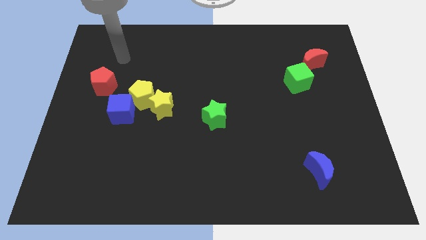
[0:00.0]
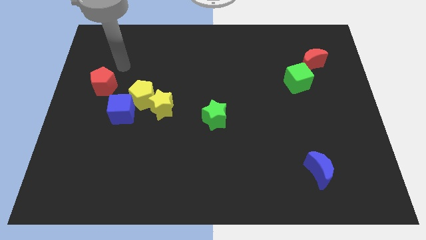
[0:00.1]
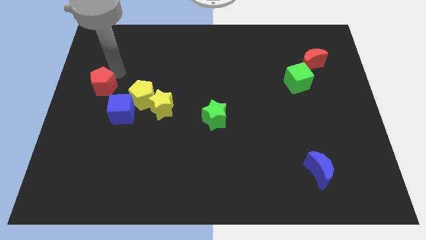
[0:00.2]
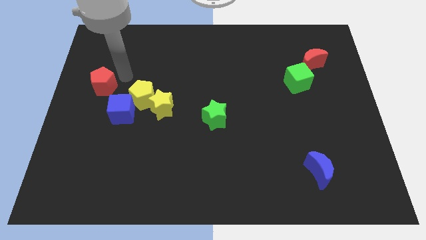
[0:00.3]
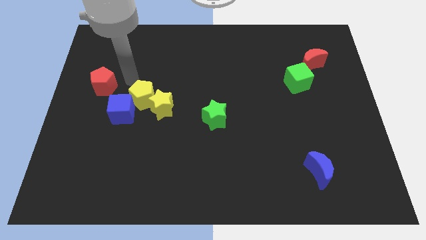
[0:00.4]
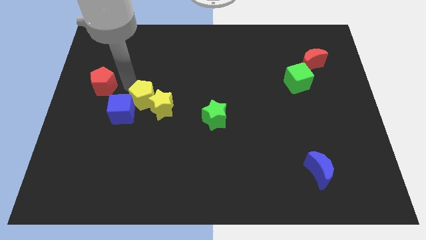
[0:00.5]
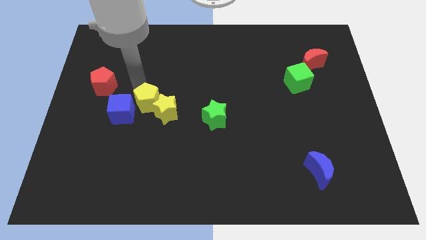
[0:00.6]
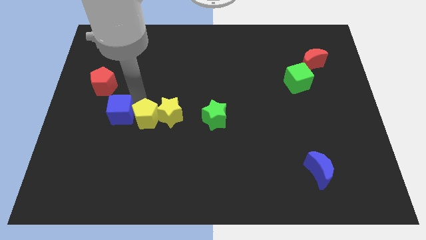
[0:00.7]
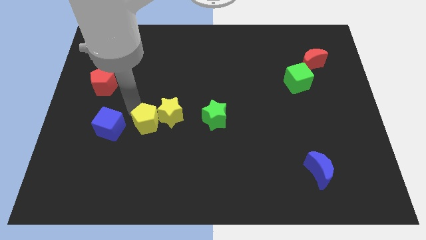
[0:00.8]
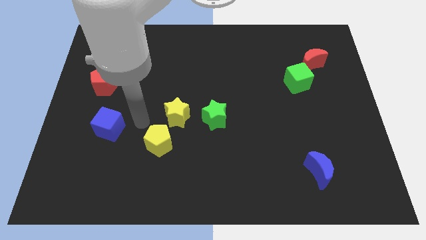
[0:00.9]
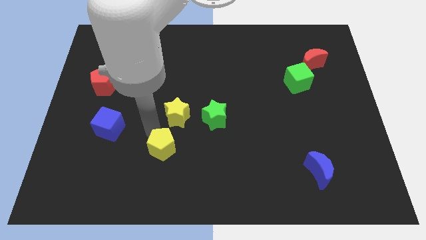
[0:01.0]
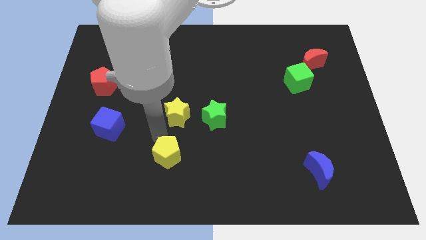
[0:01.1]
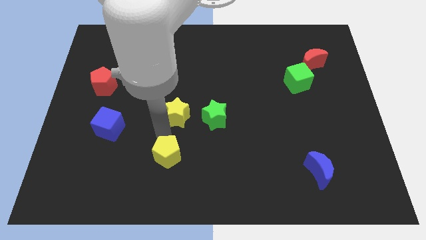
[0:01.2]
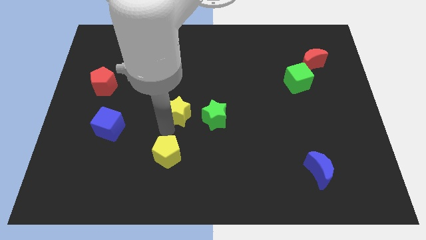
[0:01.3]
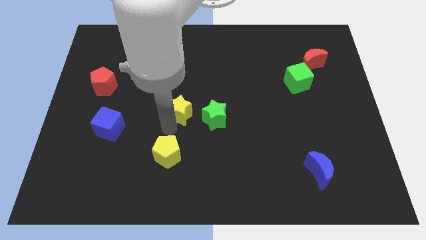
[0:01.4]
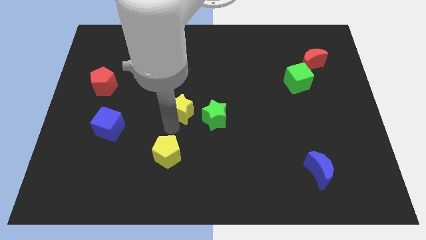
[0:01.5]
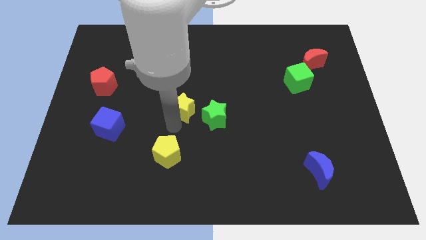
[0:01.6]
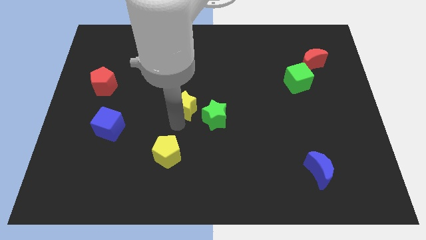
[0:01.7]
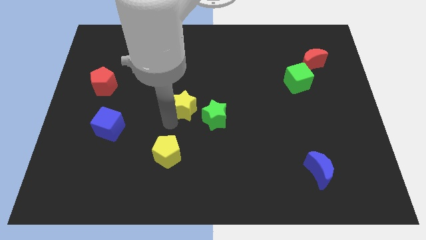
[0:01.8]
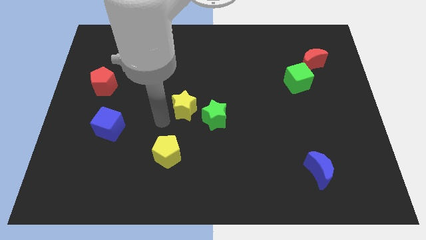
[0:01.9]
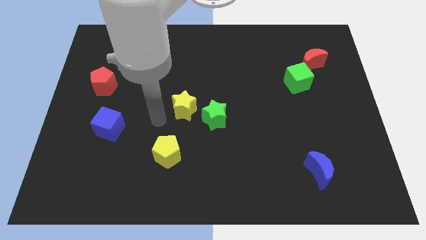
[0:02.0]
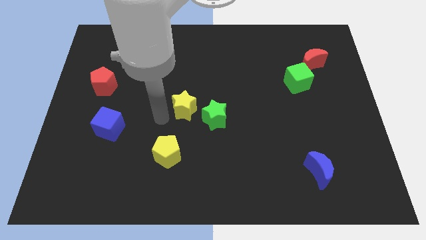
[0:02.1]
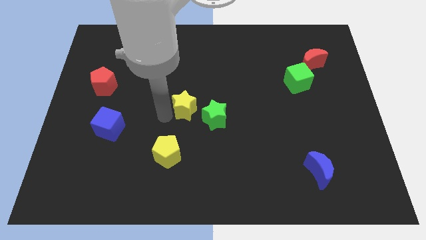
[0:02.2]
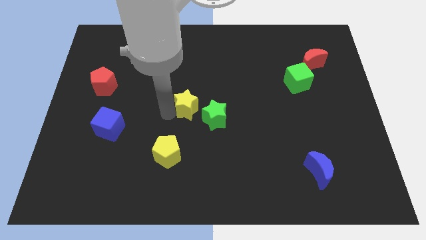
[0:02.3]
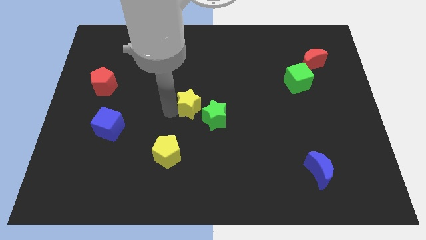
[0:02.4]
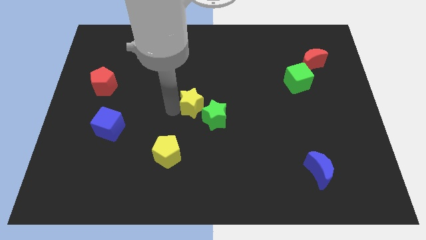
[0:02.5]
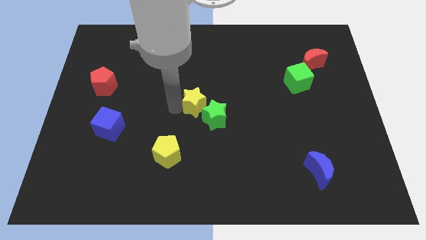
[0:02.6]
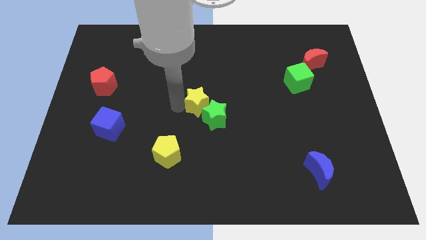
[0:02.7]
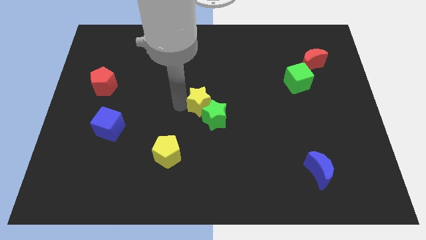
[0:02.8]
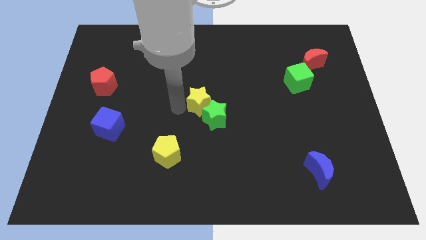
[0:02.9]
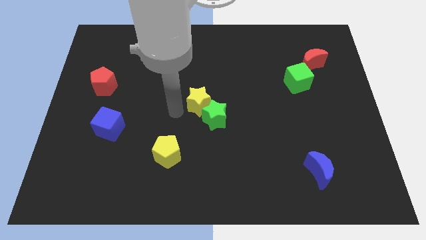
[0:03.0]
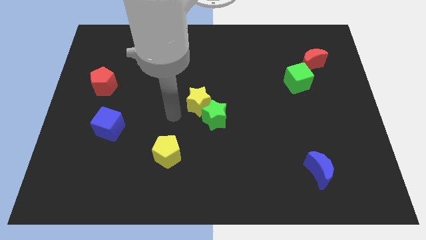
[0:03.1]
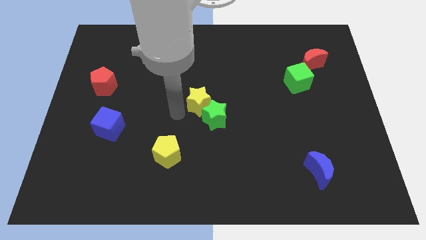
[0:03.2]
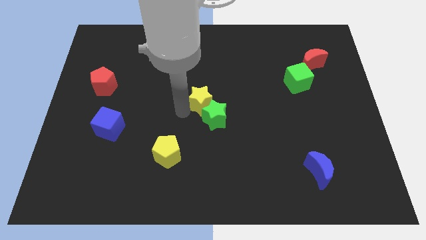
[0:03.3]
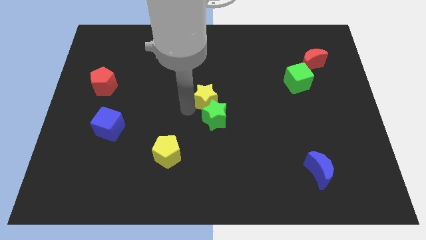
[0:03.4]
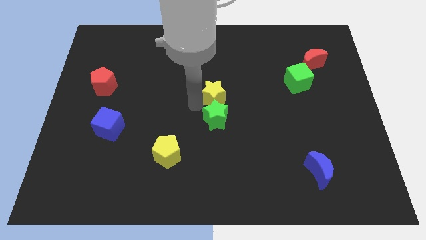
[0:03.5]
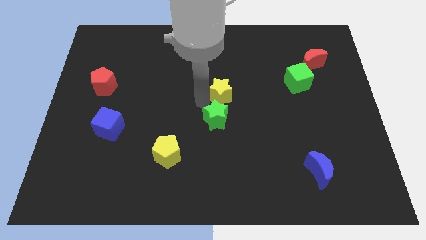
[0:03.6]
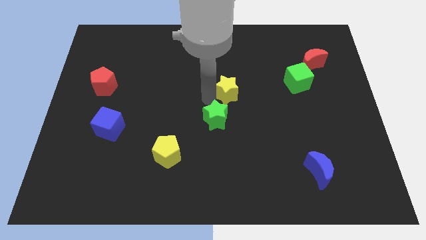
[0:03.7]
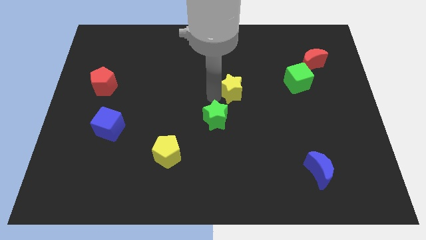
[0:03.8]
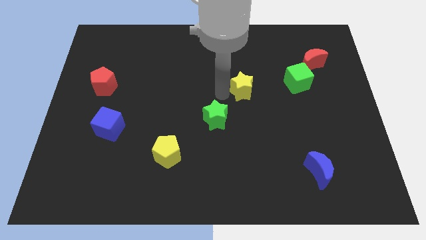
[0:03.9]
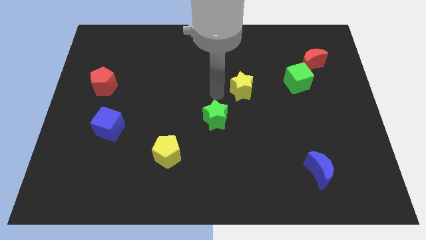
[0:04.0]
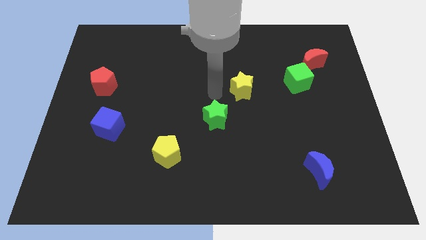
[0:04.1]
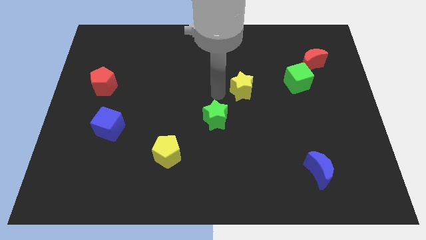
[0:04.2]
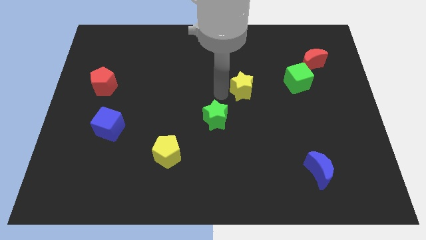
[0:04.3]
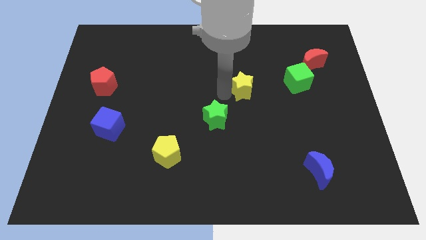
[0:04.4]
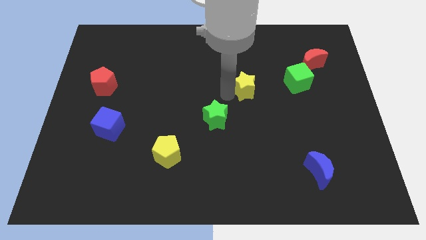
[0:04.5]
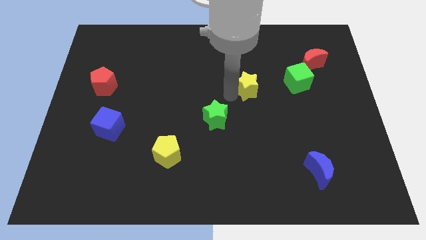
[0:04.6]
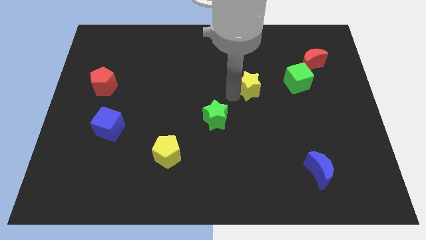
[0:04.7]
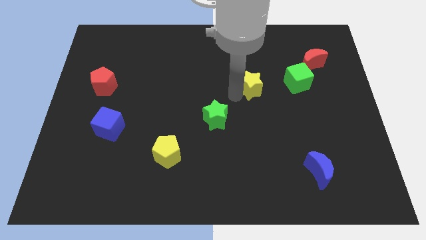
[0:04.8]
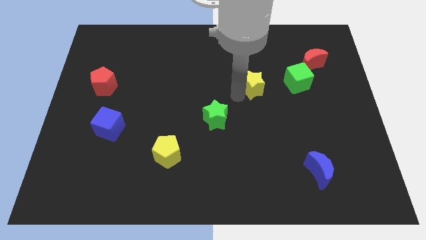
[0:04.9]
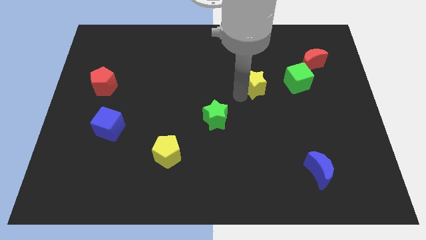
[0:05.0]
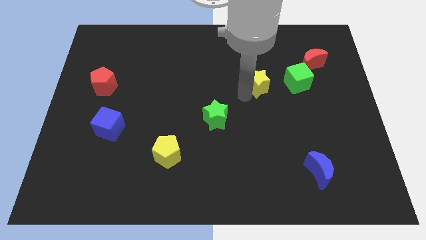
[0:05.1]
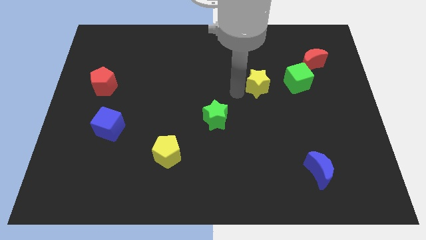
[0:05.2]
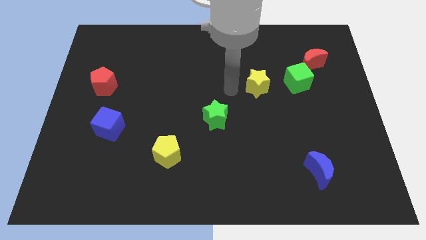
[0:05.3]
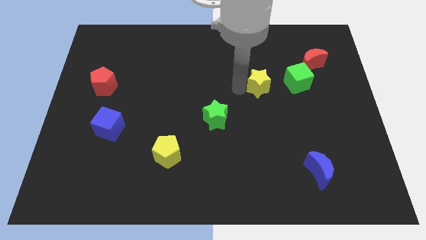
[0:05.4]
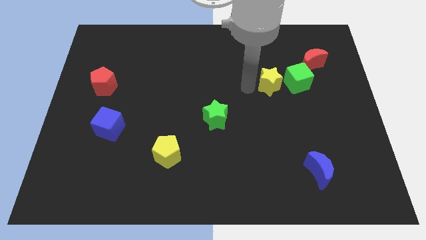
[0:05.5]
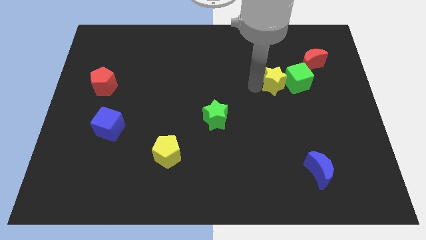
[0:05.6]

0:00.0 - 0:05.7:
push the yellow star towards the green cube

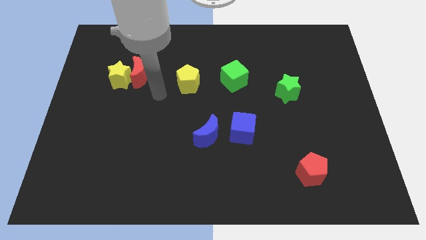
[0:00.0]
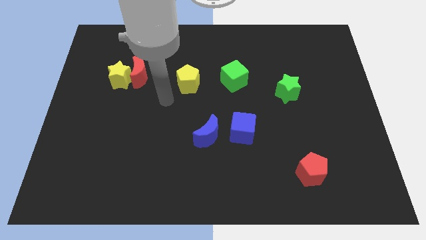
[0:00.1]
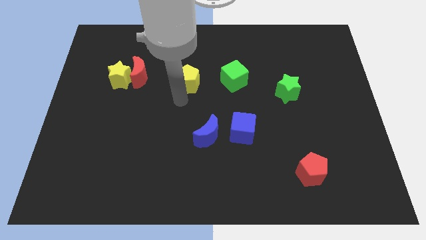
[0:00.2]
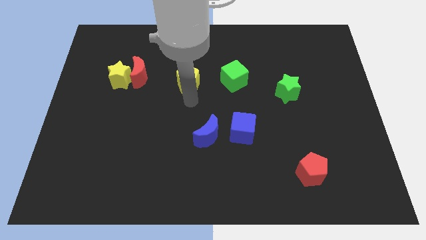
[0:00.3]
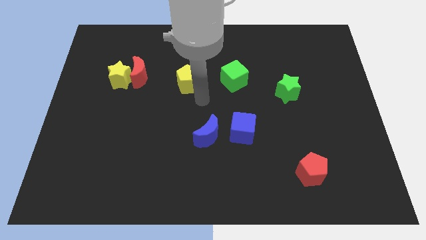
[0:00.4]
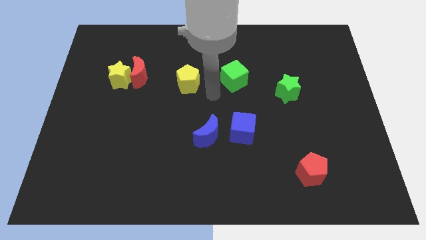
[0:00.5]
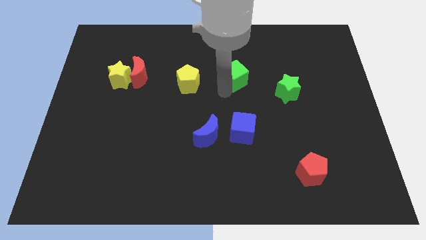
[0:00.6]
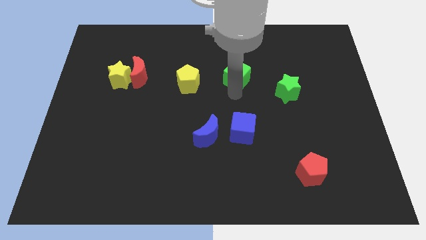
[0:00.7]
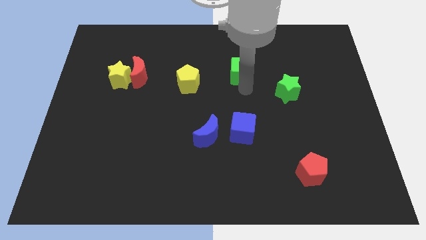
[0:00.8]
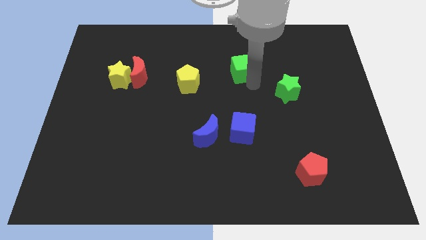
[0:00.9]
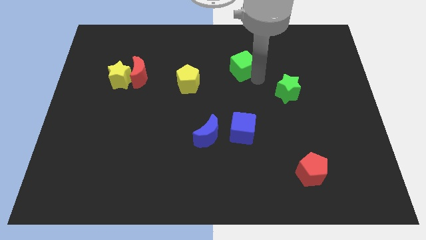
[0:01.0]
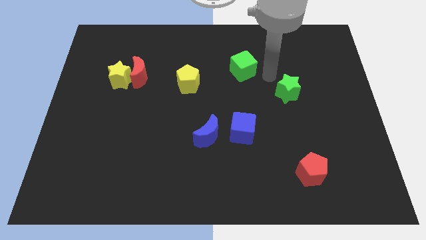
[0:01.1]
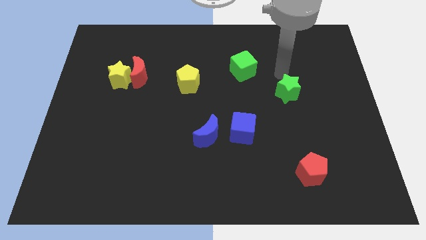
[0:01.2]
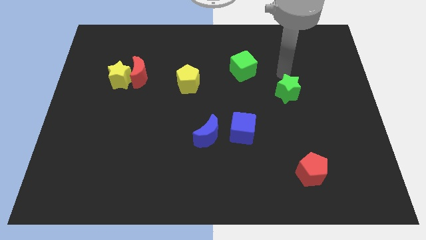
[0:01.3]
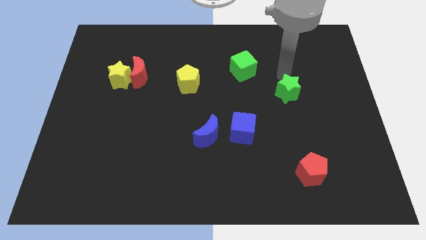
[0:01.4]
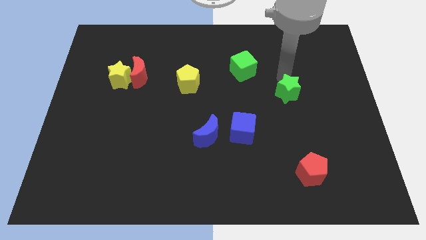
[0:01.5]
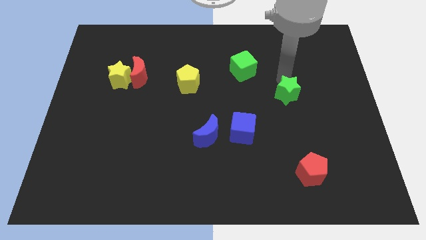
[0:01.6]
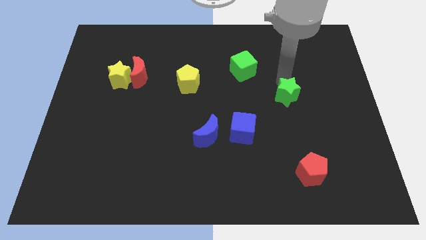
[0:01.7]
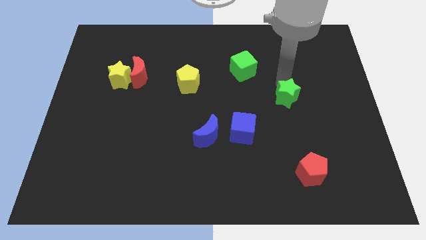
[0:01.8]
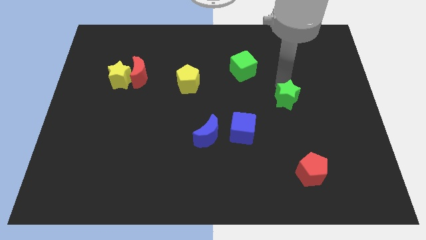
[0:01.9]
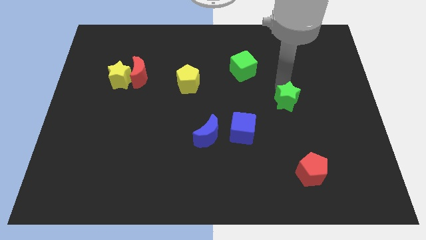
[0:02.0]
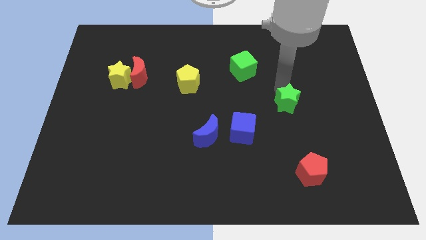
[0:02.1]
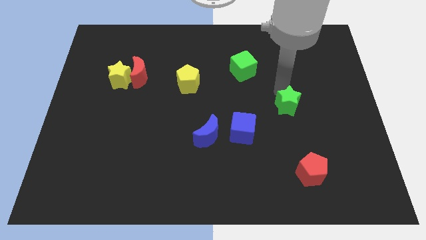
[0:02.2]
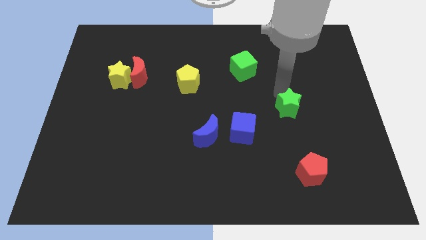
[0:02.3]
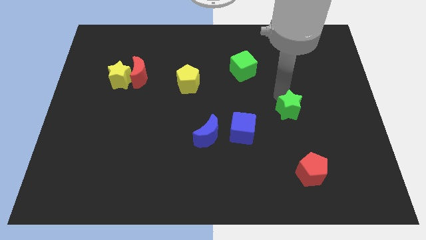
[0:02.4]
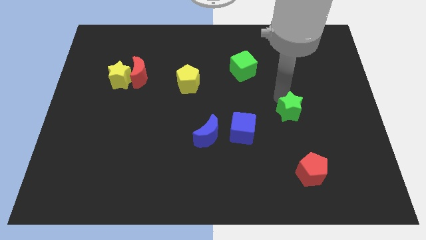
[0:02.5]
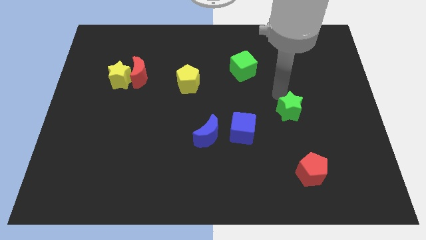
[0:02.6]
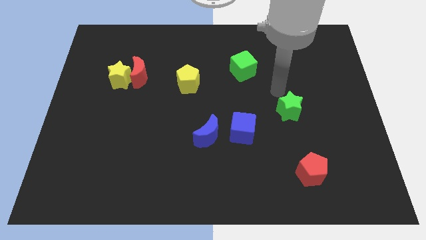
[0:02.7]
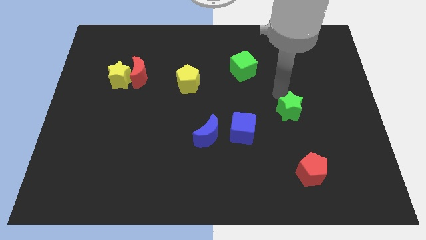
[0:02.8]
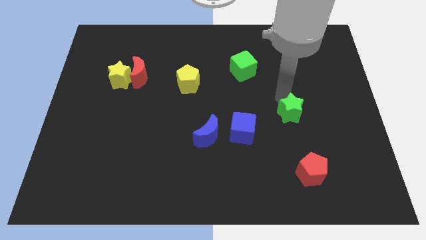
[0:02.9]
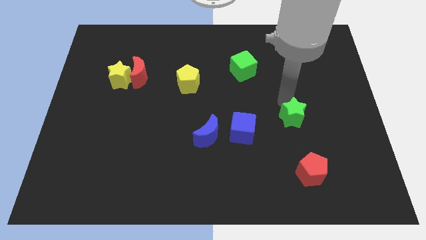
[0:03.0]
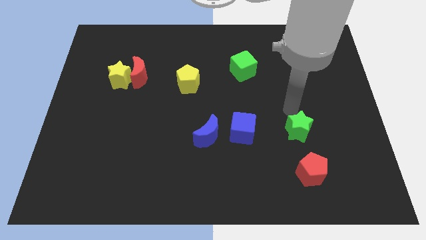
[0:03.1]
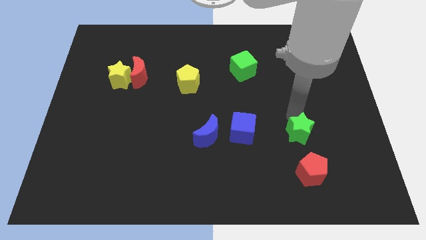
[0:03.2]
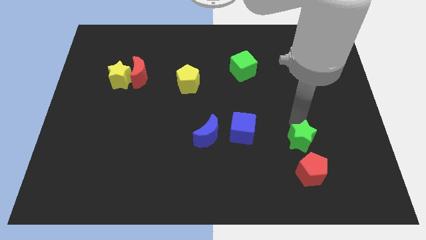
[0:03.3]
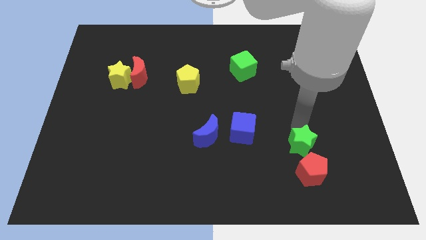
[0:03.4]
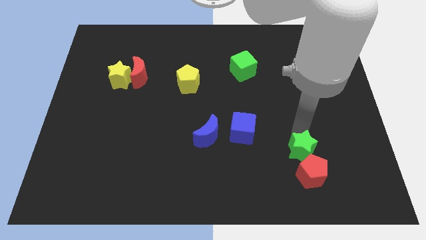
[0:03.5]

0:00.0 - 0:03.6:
put the green star towards the red pentagon
